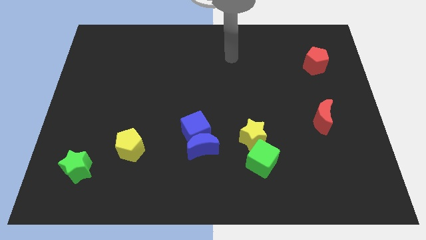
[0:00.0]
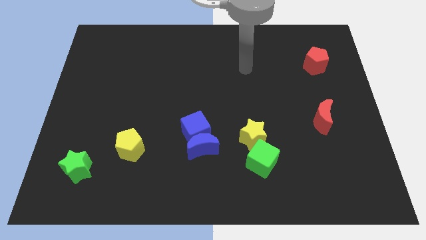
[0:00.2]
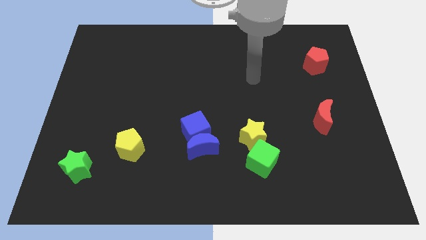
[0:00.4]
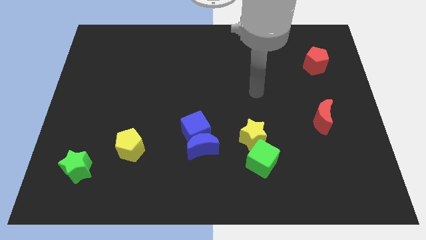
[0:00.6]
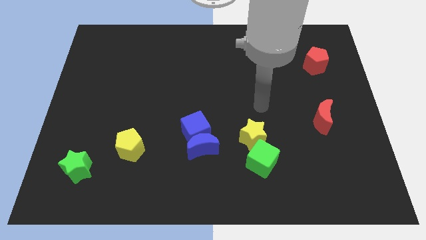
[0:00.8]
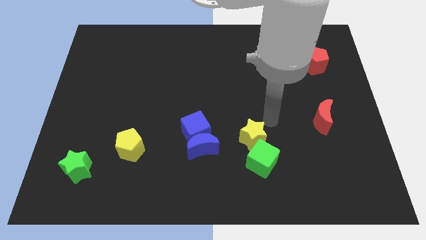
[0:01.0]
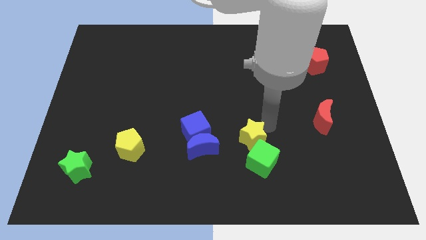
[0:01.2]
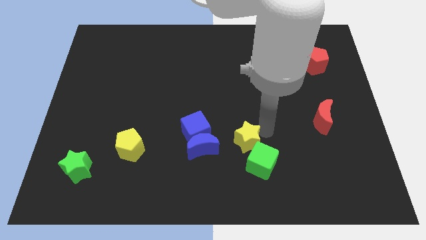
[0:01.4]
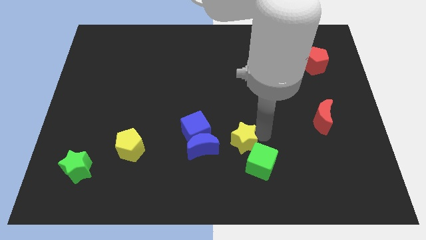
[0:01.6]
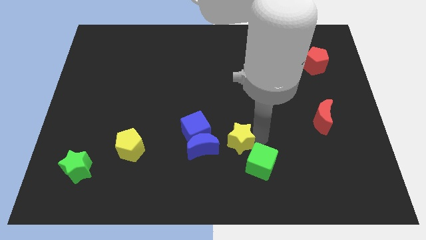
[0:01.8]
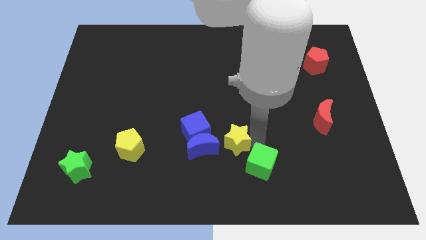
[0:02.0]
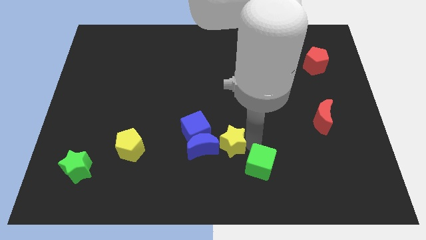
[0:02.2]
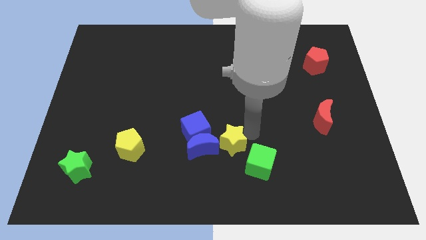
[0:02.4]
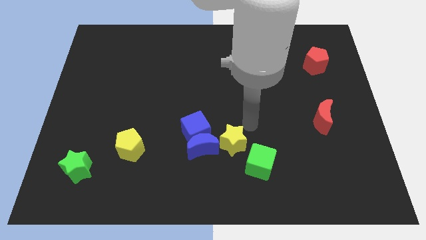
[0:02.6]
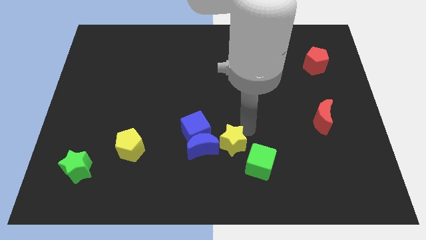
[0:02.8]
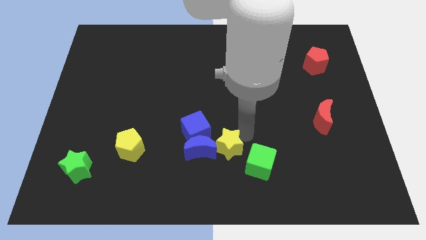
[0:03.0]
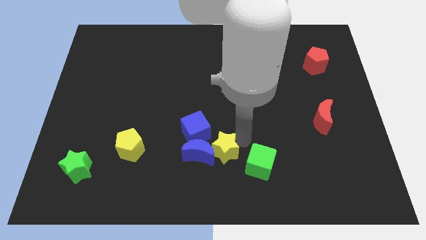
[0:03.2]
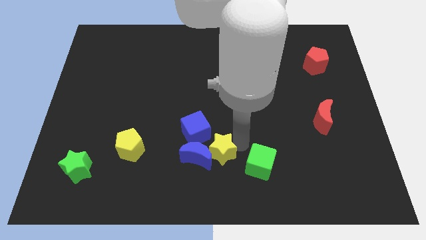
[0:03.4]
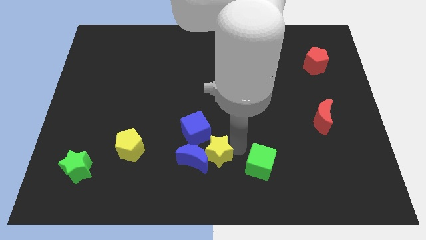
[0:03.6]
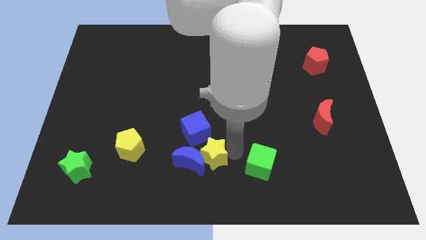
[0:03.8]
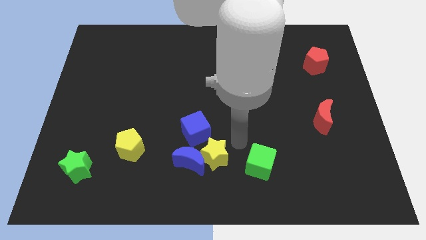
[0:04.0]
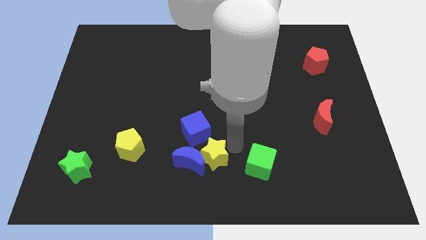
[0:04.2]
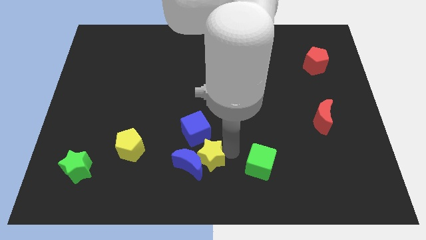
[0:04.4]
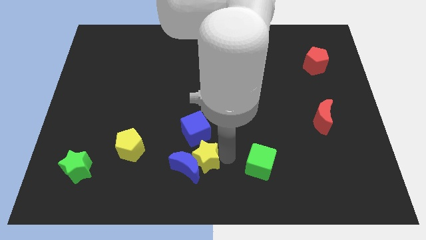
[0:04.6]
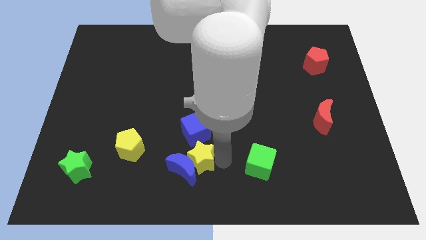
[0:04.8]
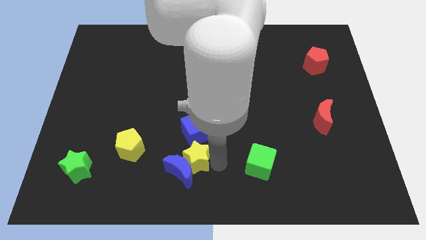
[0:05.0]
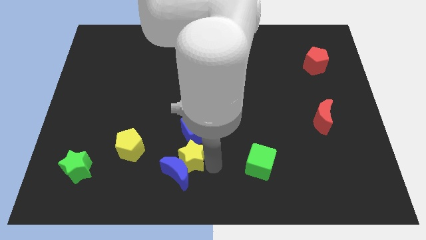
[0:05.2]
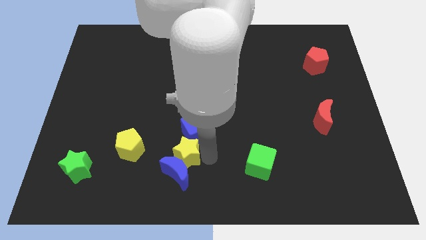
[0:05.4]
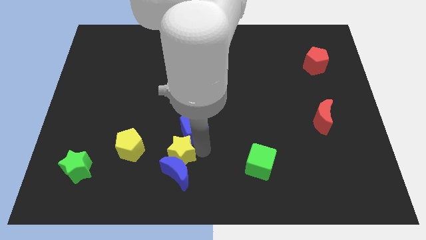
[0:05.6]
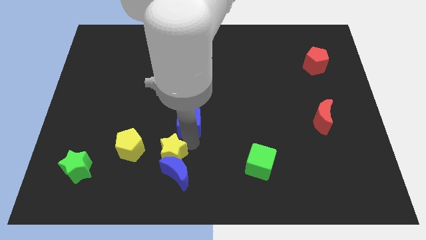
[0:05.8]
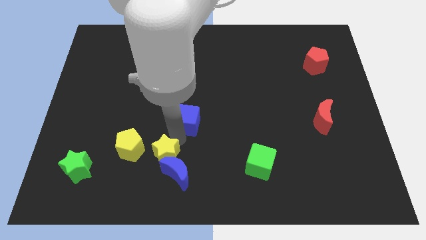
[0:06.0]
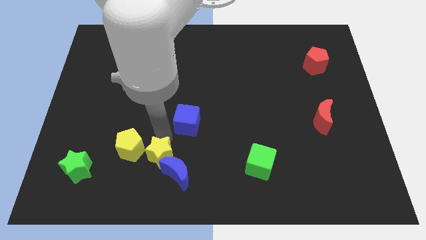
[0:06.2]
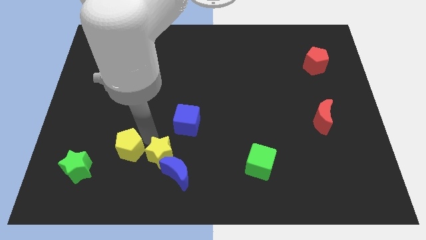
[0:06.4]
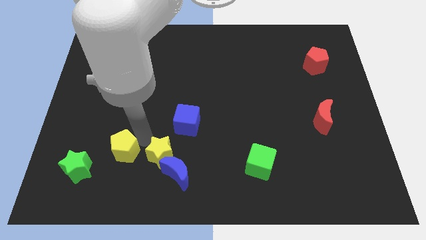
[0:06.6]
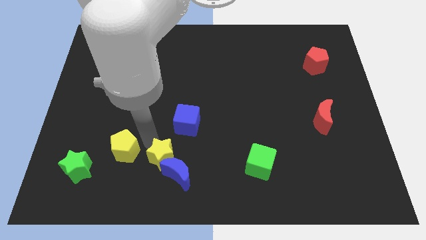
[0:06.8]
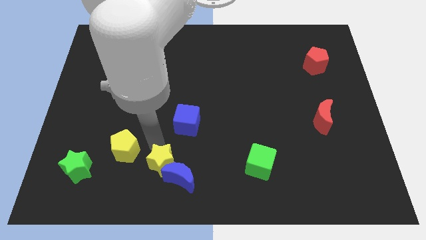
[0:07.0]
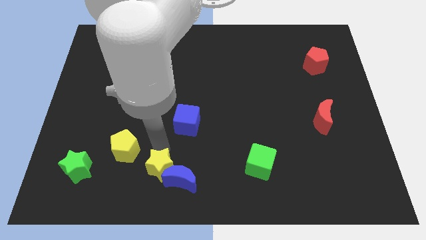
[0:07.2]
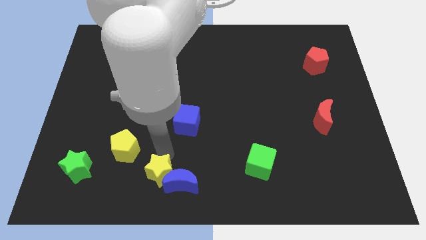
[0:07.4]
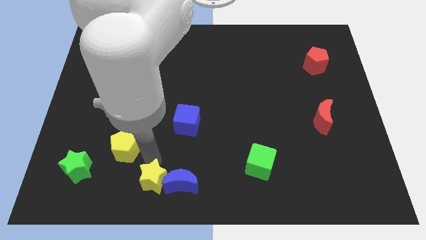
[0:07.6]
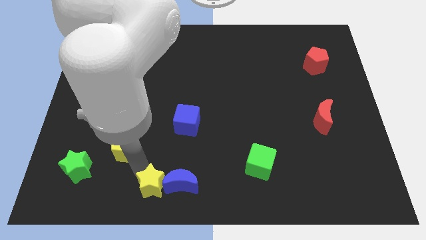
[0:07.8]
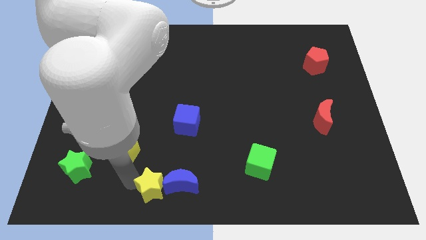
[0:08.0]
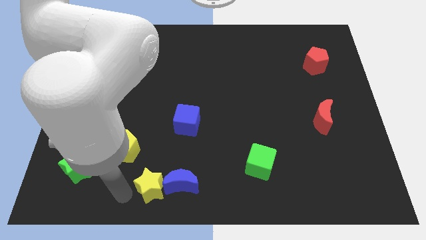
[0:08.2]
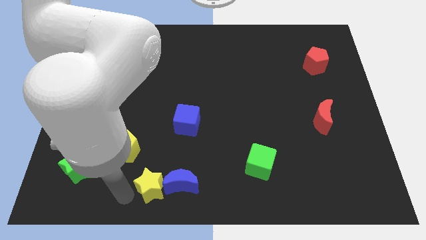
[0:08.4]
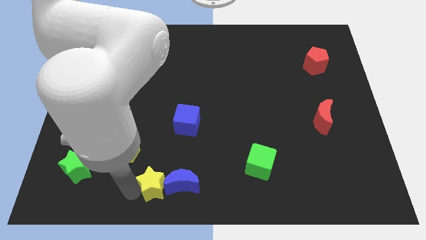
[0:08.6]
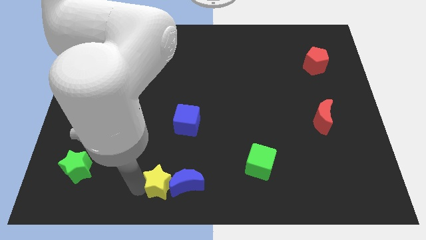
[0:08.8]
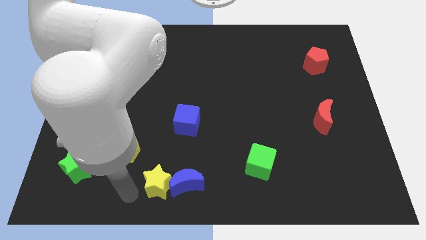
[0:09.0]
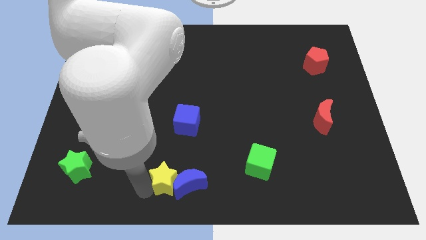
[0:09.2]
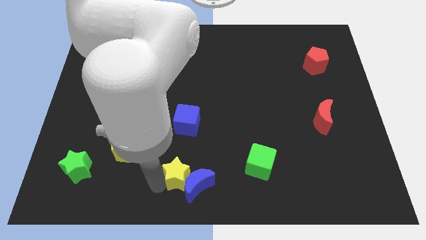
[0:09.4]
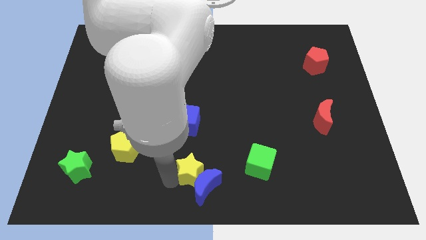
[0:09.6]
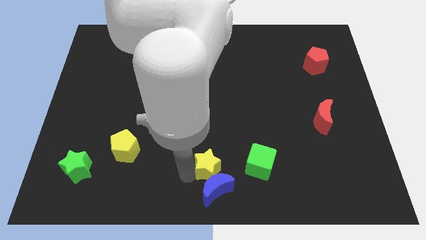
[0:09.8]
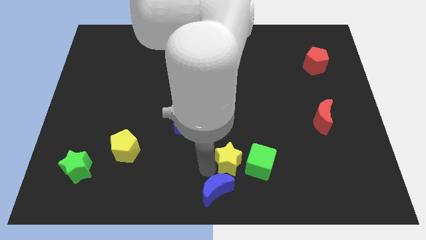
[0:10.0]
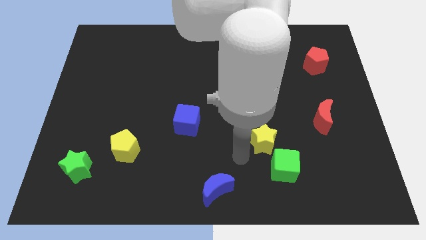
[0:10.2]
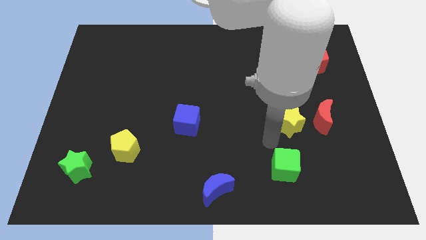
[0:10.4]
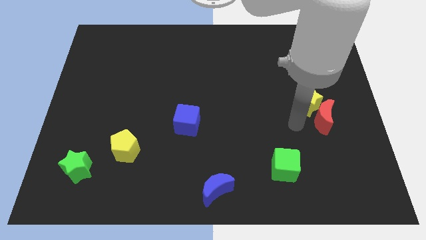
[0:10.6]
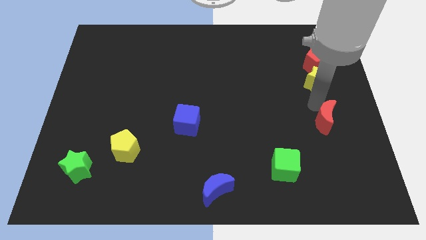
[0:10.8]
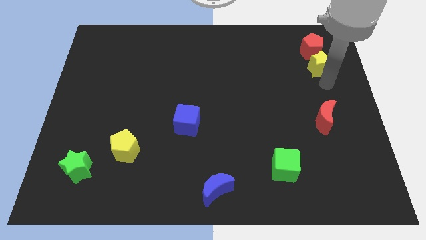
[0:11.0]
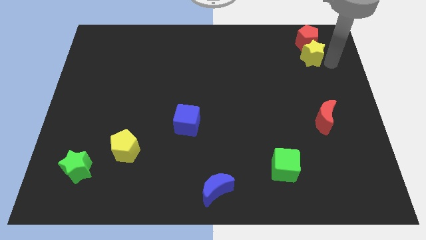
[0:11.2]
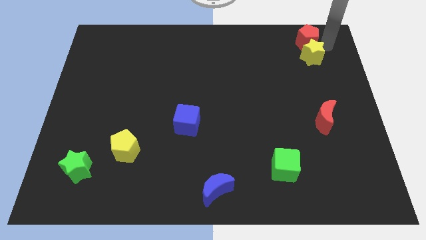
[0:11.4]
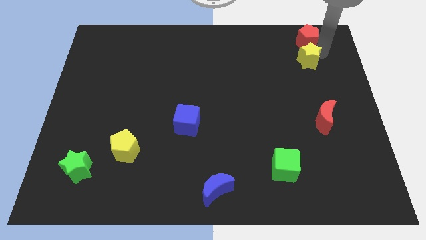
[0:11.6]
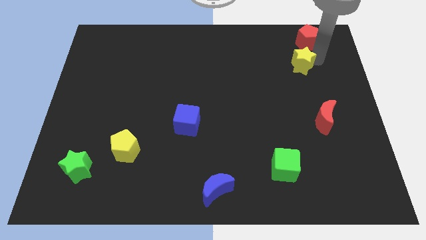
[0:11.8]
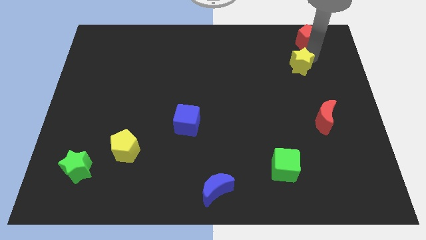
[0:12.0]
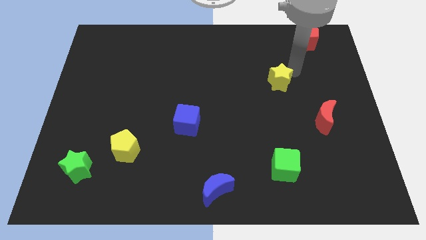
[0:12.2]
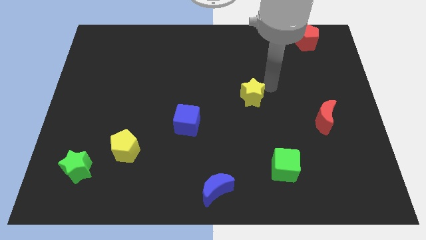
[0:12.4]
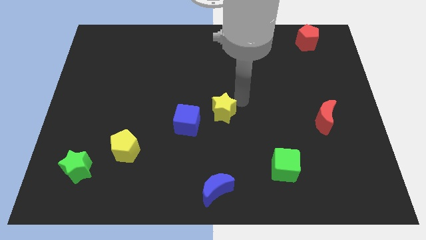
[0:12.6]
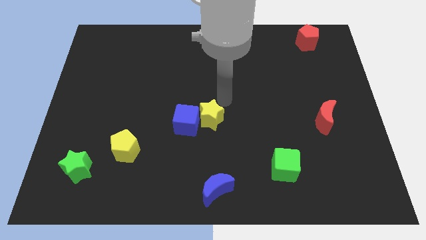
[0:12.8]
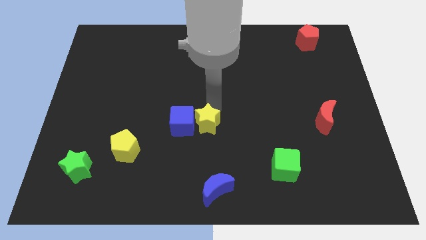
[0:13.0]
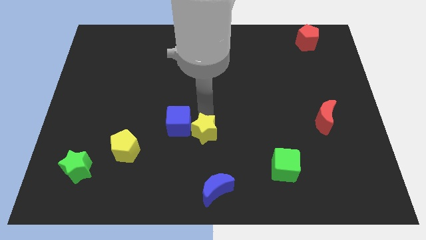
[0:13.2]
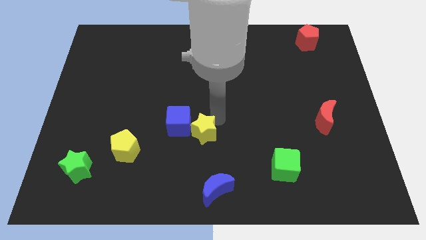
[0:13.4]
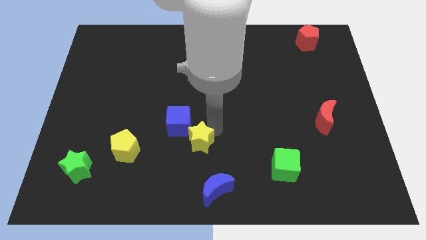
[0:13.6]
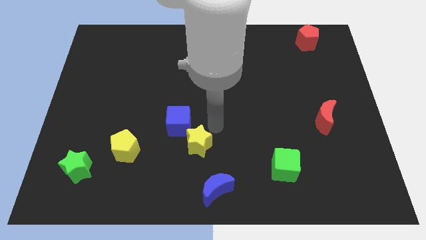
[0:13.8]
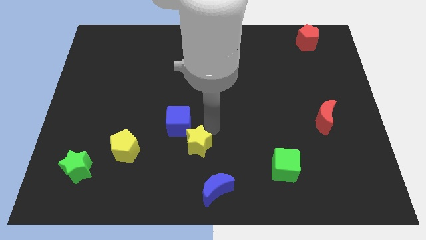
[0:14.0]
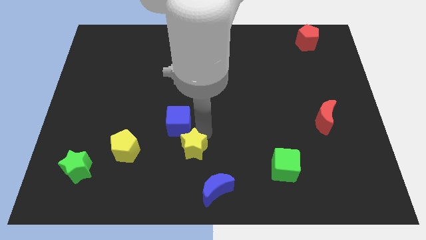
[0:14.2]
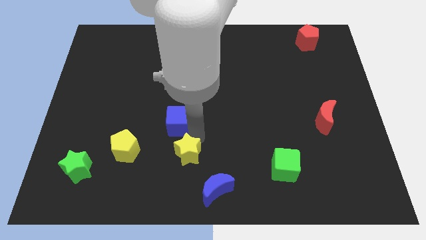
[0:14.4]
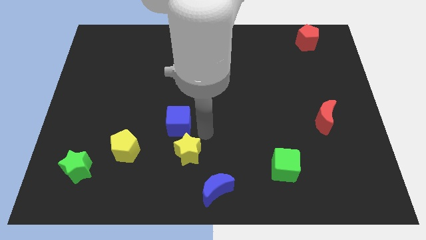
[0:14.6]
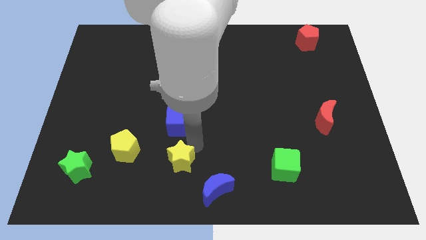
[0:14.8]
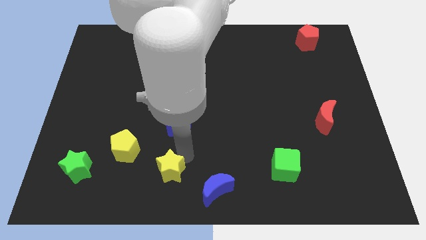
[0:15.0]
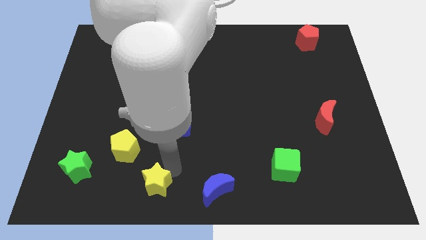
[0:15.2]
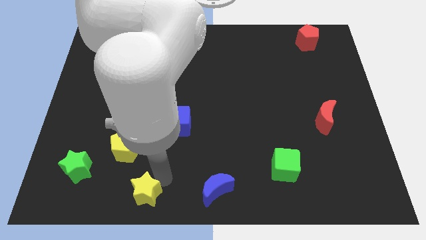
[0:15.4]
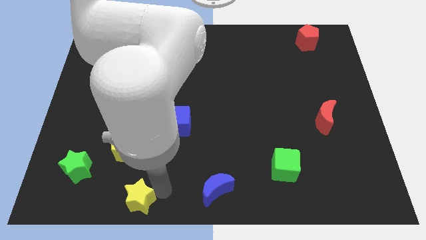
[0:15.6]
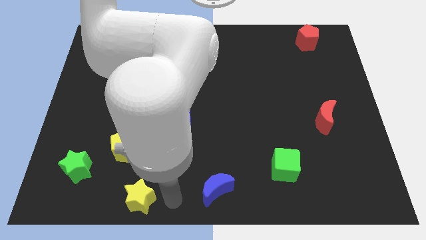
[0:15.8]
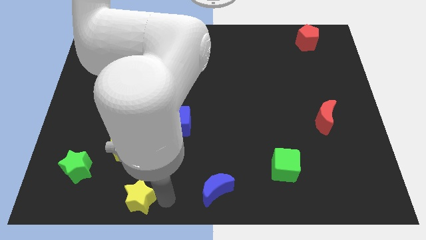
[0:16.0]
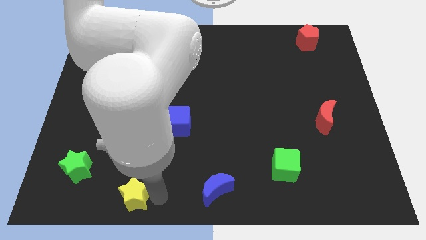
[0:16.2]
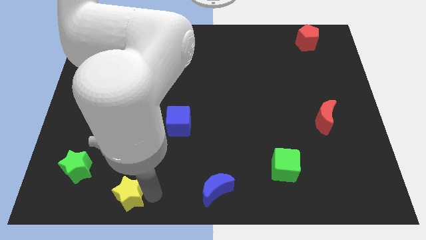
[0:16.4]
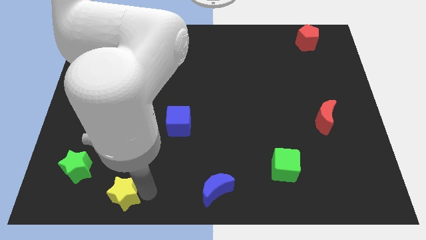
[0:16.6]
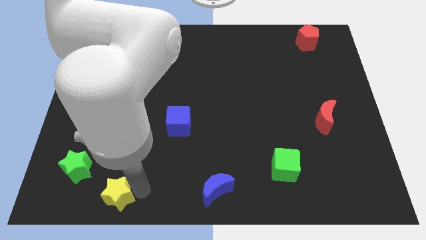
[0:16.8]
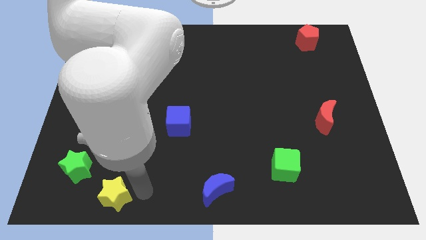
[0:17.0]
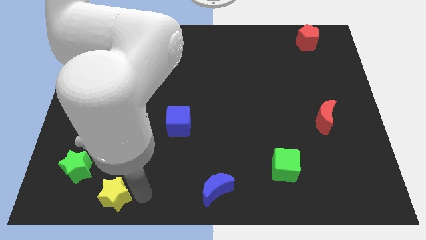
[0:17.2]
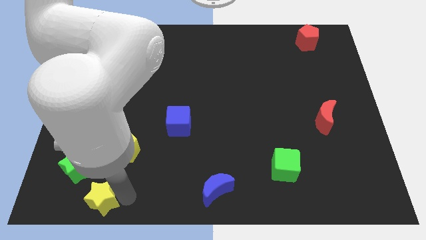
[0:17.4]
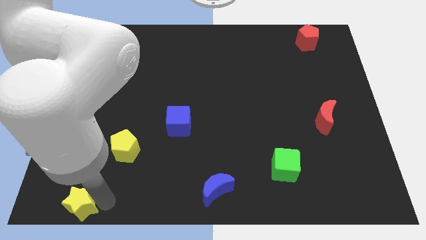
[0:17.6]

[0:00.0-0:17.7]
move the yellow star to the bottom left
